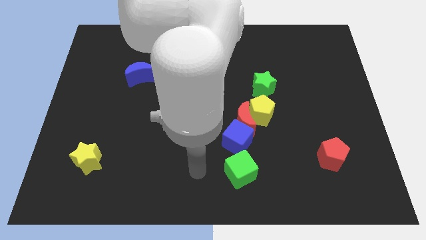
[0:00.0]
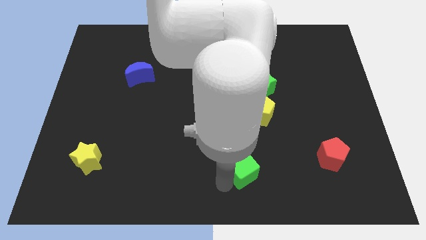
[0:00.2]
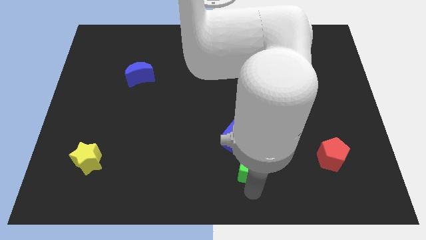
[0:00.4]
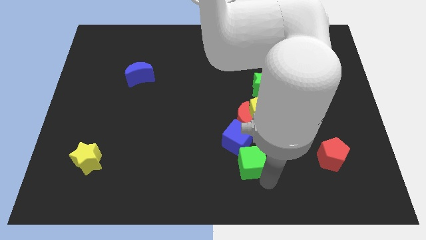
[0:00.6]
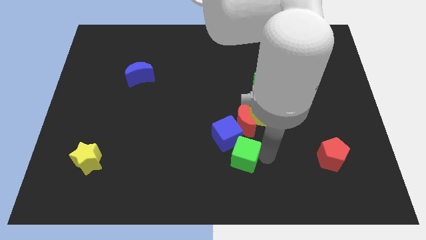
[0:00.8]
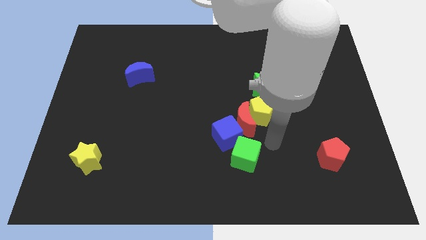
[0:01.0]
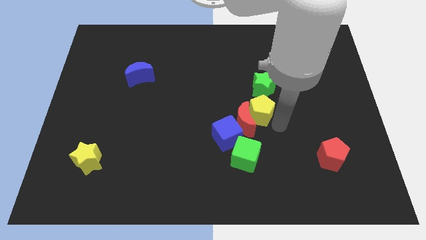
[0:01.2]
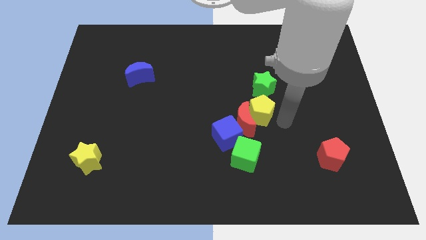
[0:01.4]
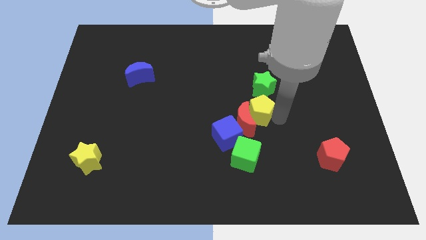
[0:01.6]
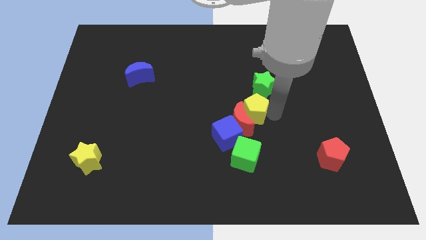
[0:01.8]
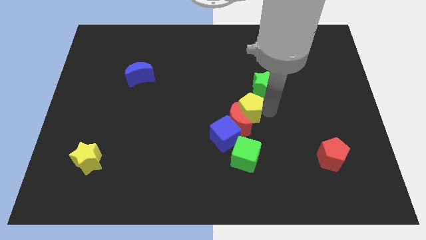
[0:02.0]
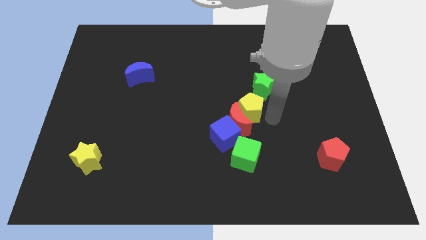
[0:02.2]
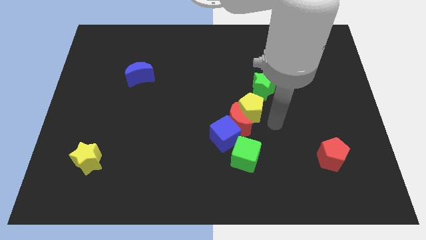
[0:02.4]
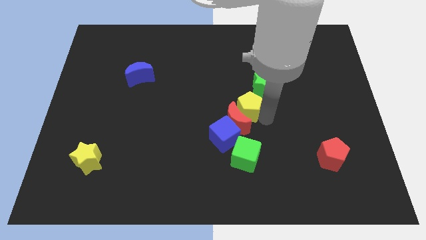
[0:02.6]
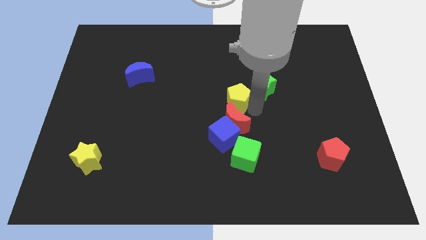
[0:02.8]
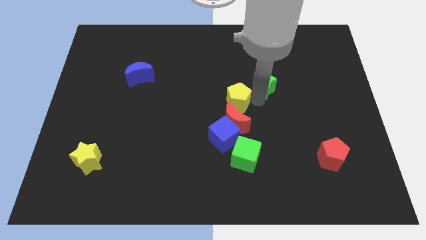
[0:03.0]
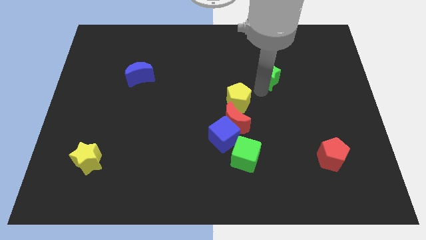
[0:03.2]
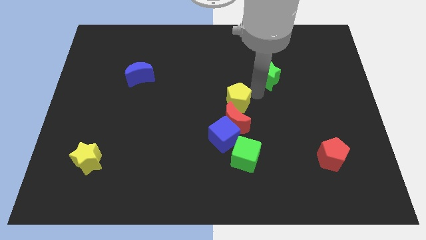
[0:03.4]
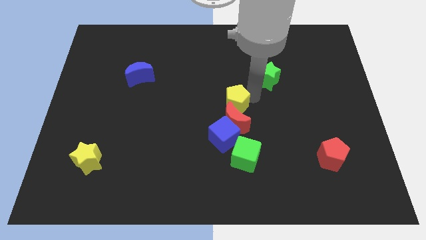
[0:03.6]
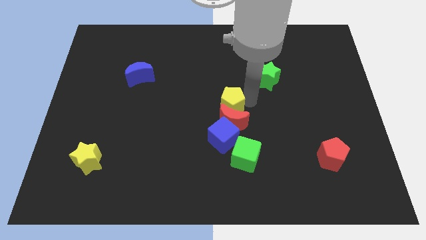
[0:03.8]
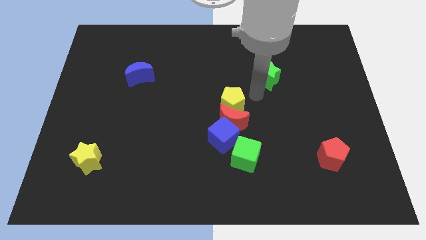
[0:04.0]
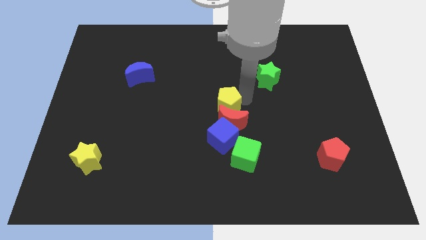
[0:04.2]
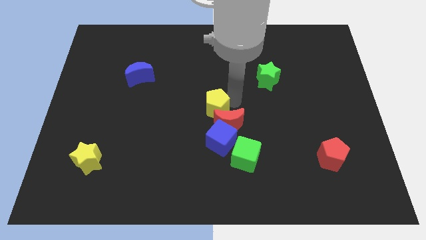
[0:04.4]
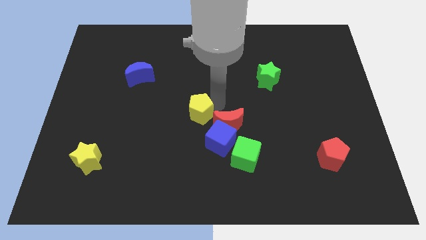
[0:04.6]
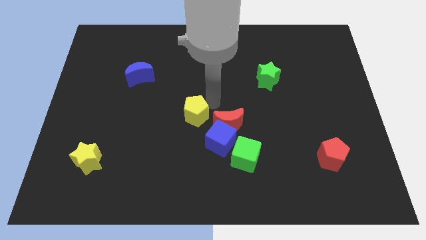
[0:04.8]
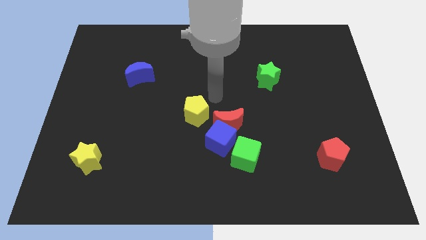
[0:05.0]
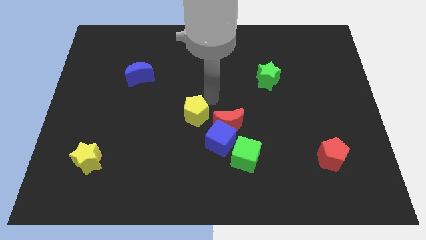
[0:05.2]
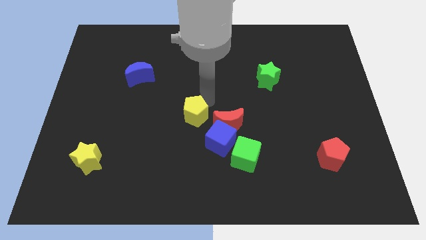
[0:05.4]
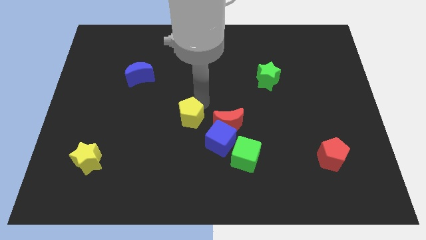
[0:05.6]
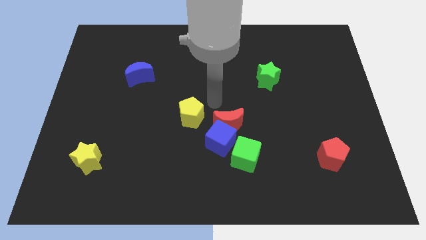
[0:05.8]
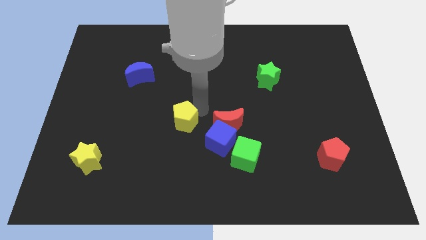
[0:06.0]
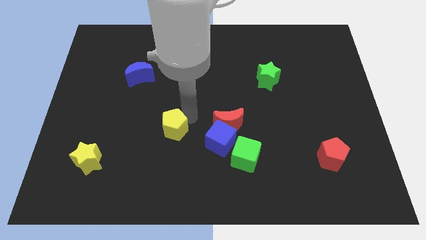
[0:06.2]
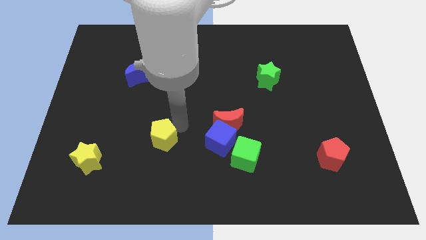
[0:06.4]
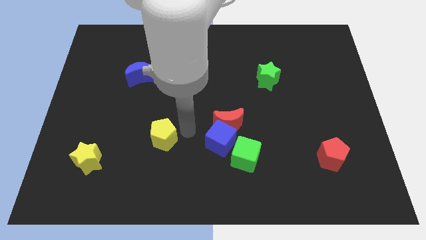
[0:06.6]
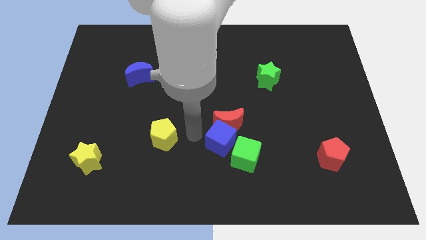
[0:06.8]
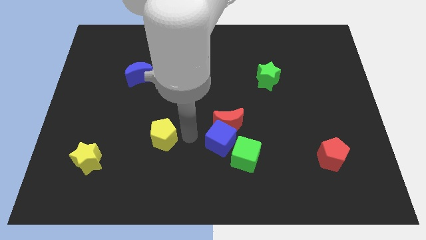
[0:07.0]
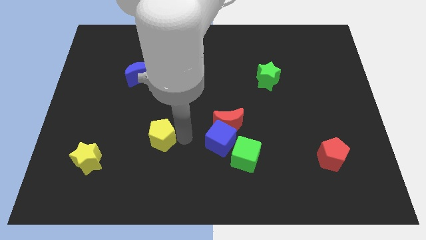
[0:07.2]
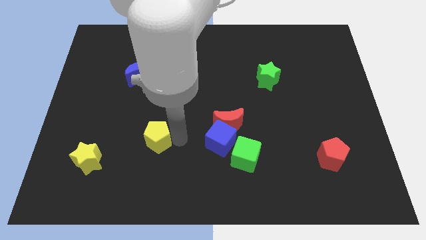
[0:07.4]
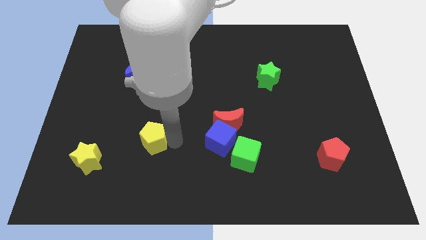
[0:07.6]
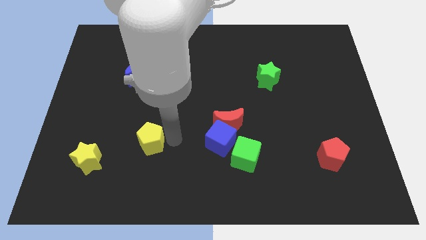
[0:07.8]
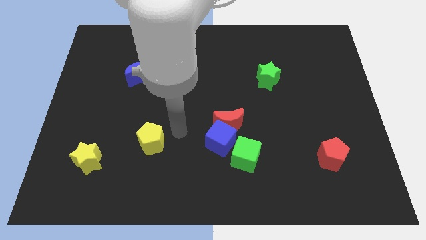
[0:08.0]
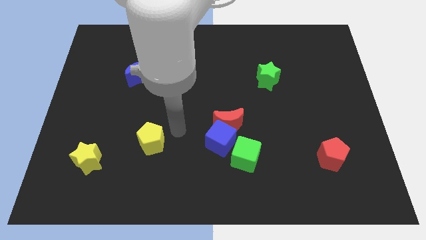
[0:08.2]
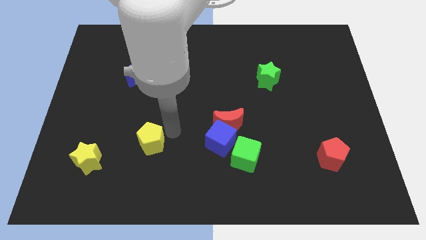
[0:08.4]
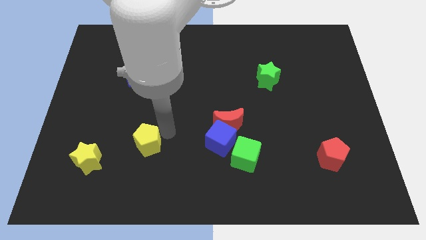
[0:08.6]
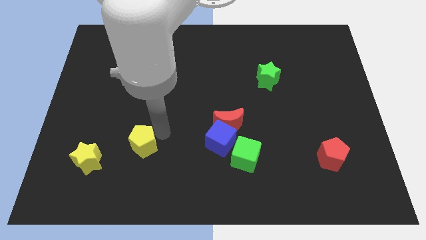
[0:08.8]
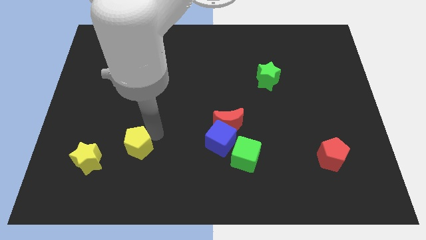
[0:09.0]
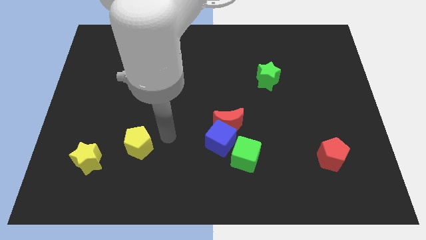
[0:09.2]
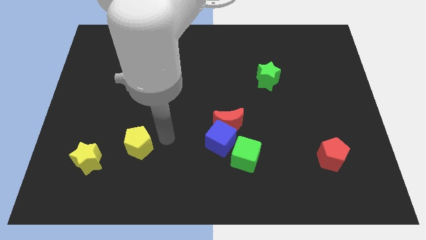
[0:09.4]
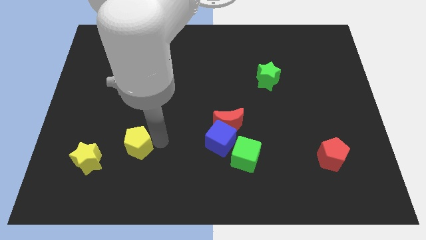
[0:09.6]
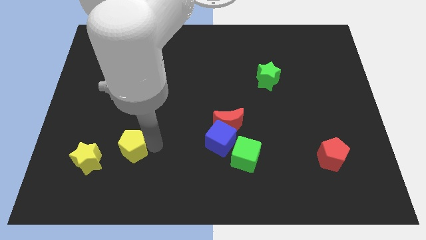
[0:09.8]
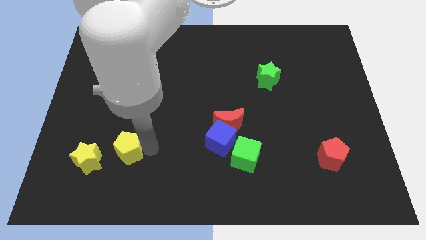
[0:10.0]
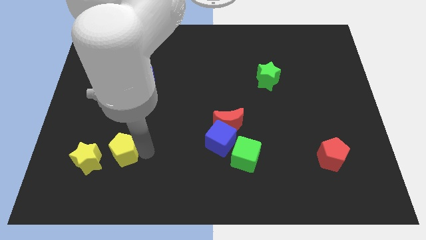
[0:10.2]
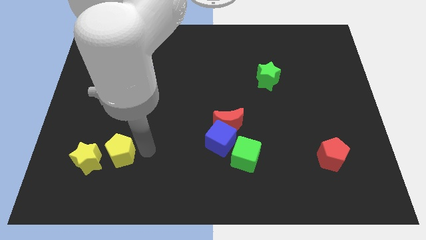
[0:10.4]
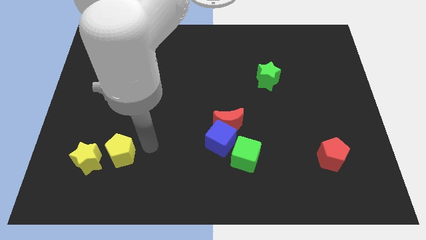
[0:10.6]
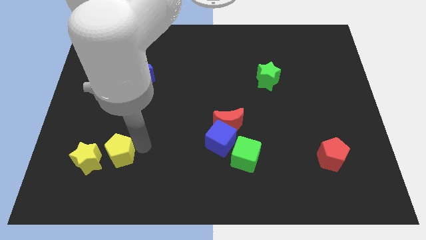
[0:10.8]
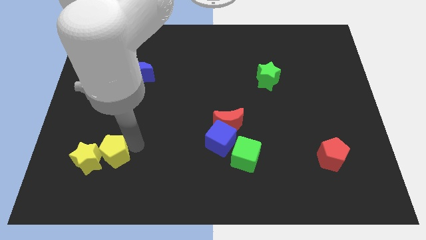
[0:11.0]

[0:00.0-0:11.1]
move the yellow pentagon close to the yellow star

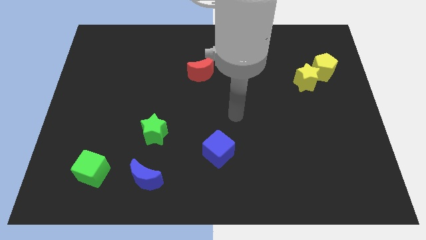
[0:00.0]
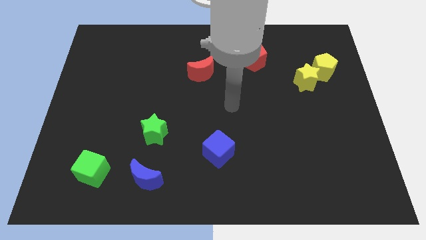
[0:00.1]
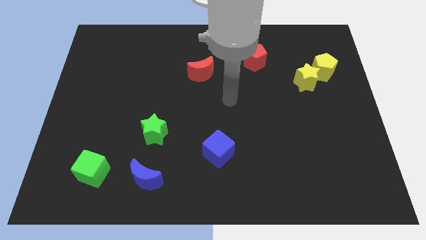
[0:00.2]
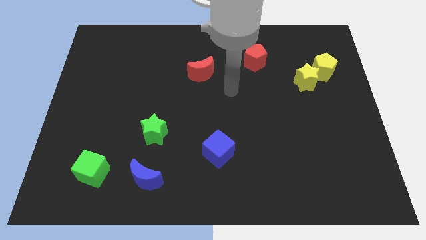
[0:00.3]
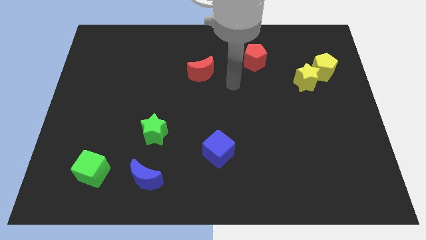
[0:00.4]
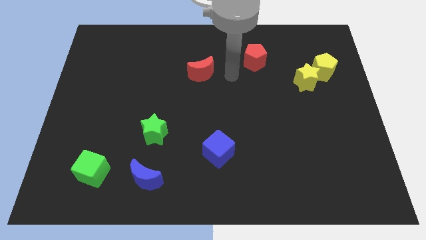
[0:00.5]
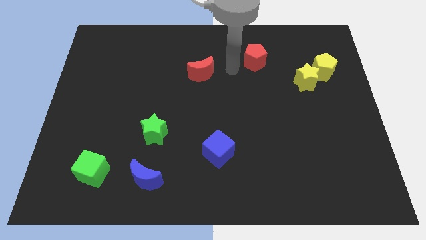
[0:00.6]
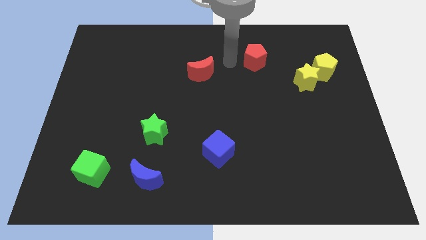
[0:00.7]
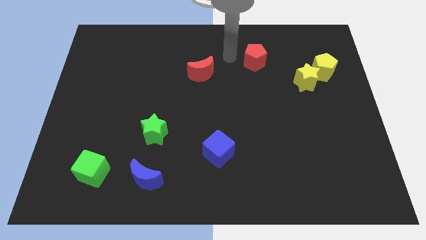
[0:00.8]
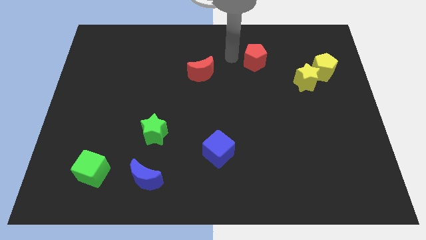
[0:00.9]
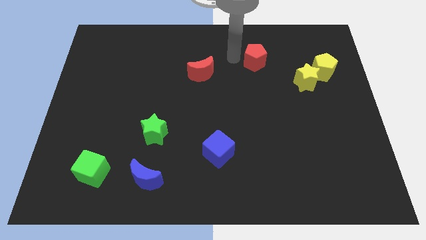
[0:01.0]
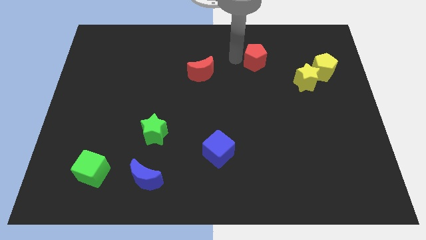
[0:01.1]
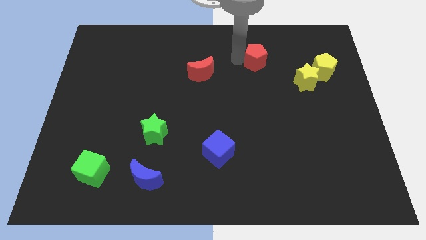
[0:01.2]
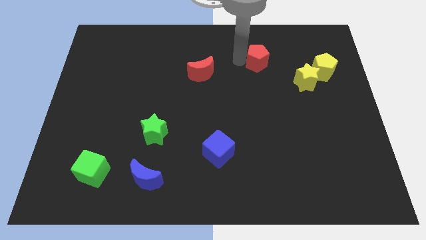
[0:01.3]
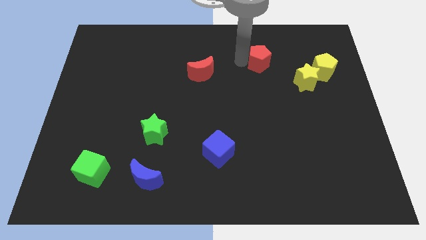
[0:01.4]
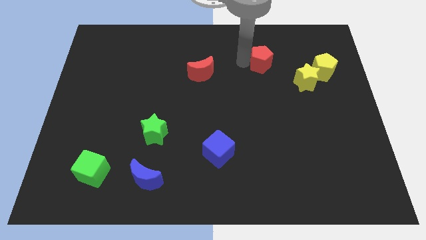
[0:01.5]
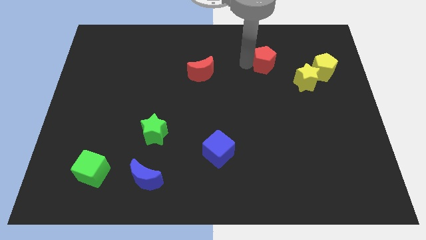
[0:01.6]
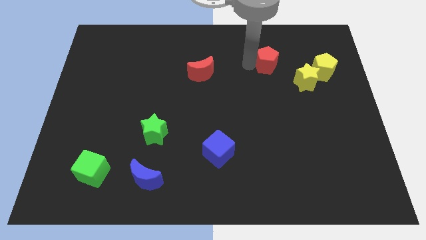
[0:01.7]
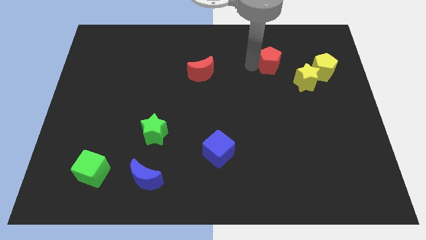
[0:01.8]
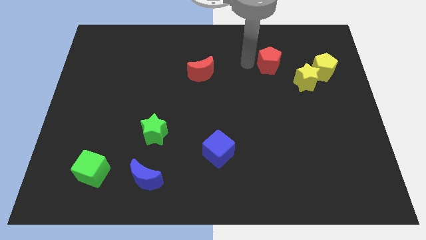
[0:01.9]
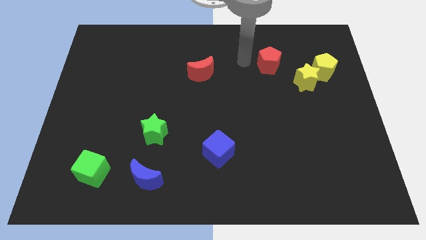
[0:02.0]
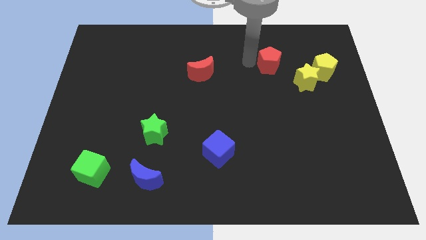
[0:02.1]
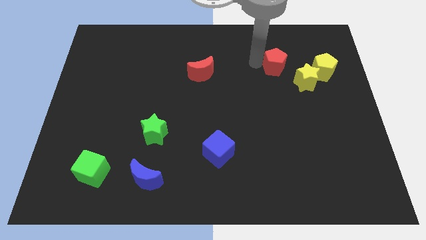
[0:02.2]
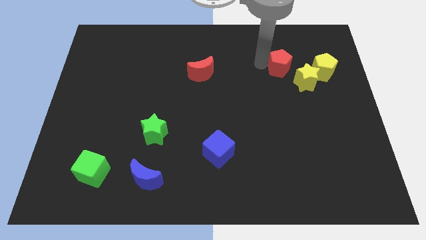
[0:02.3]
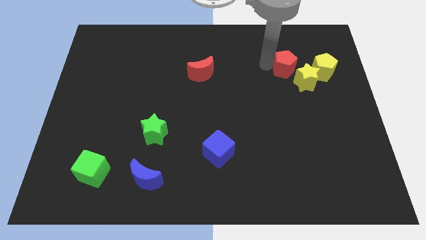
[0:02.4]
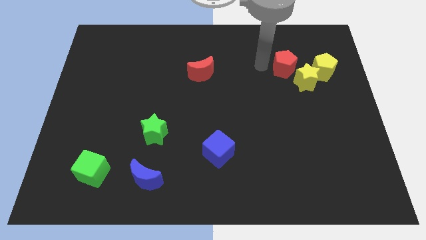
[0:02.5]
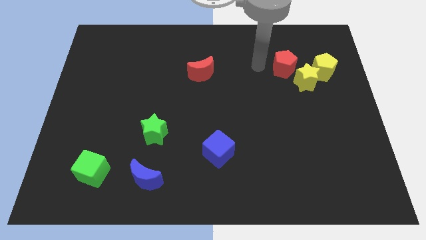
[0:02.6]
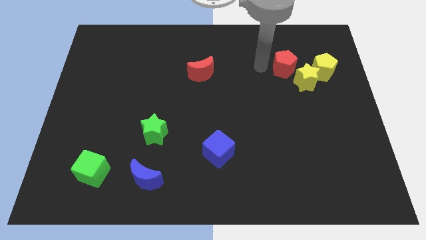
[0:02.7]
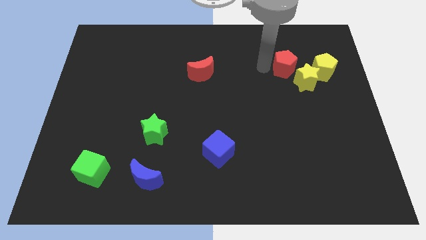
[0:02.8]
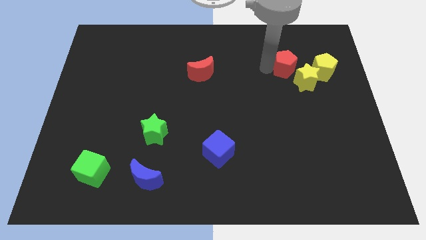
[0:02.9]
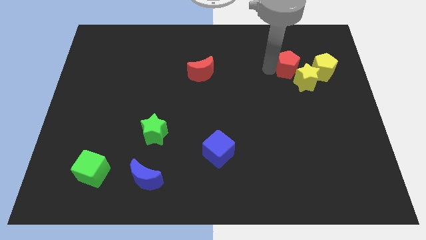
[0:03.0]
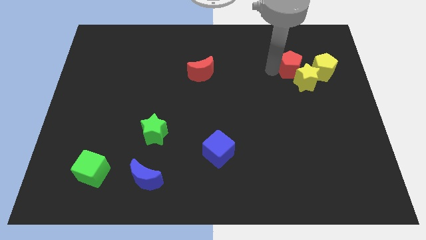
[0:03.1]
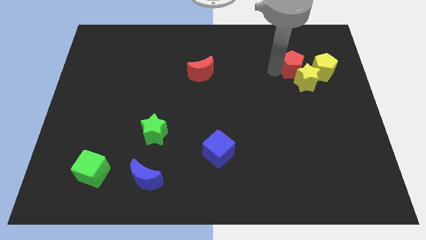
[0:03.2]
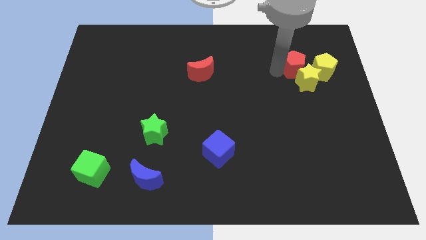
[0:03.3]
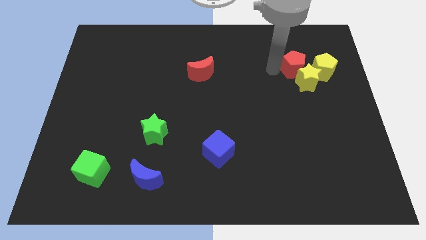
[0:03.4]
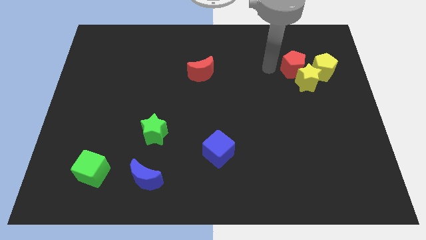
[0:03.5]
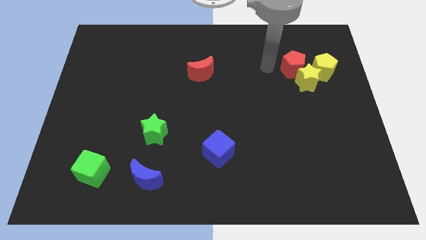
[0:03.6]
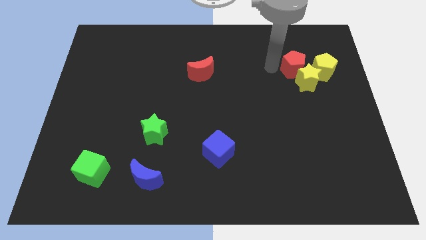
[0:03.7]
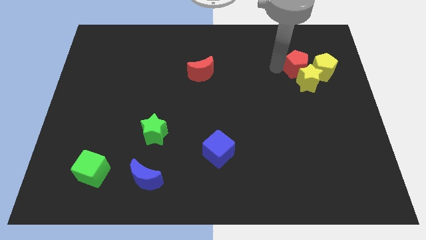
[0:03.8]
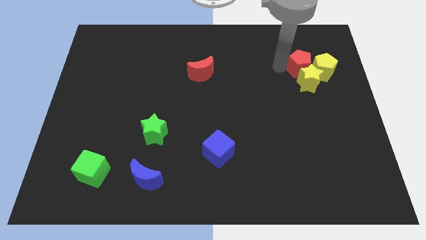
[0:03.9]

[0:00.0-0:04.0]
move the red pentagon to the yellow pentagon
